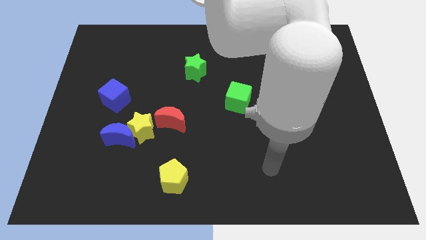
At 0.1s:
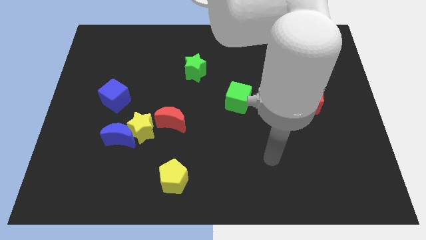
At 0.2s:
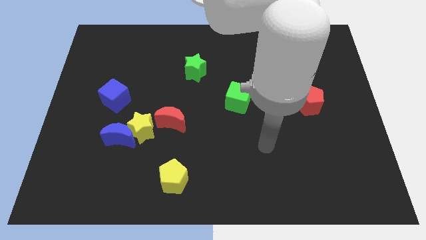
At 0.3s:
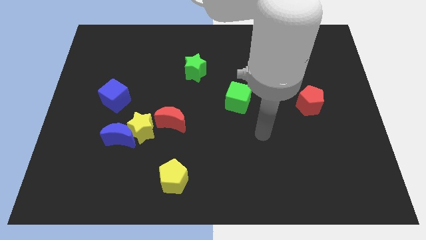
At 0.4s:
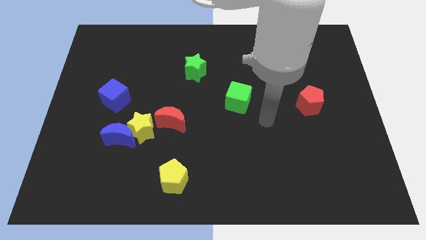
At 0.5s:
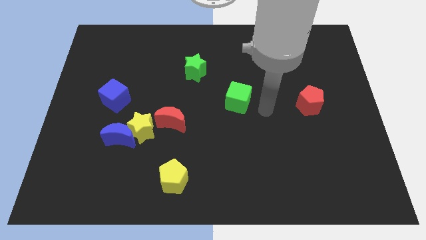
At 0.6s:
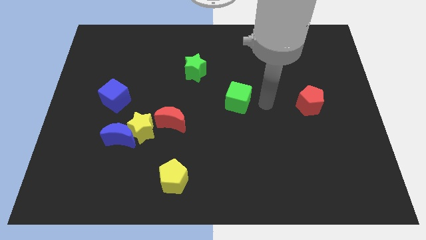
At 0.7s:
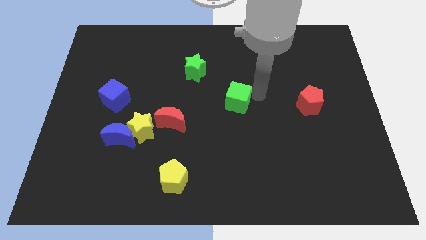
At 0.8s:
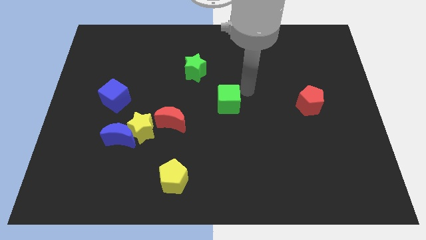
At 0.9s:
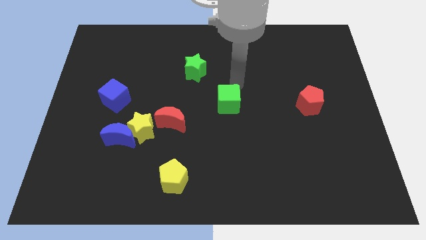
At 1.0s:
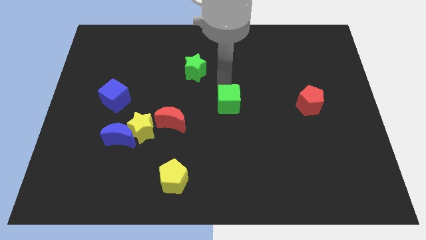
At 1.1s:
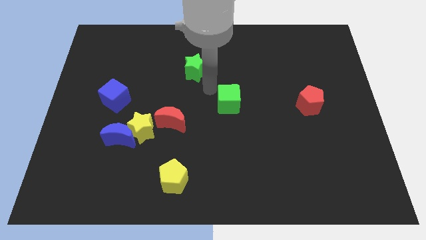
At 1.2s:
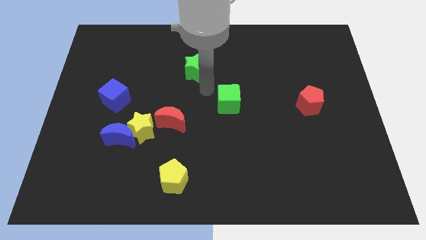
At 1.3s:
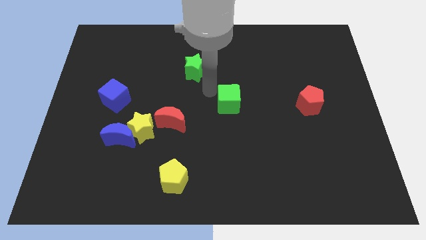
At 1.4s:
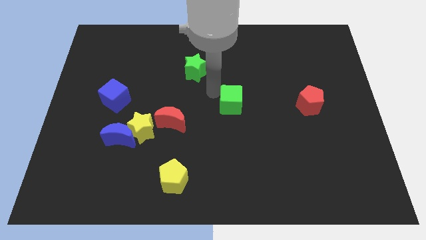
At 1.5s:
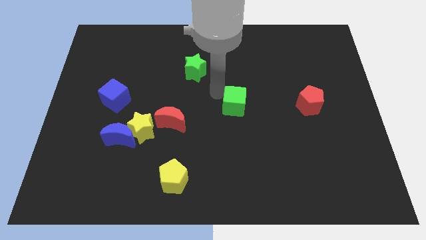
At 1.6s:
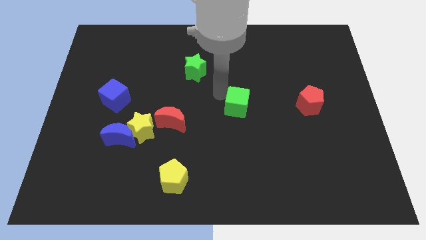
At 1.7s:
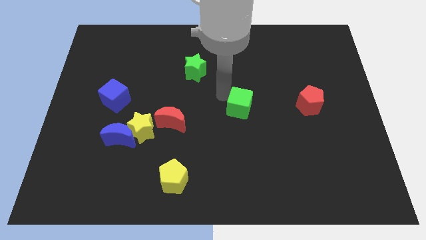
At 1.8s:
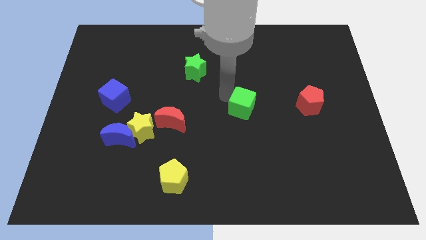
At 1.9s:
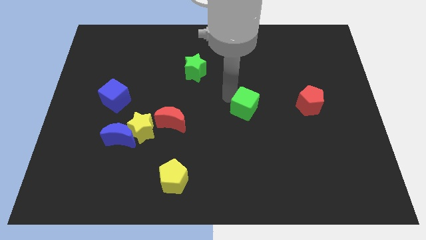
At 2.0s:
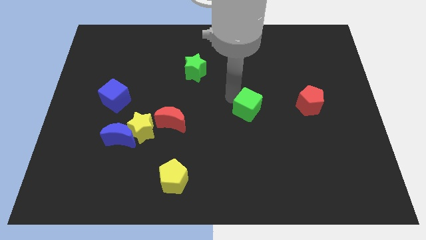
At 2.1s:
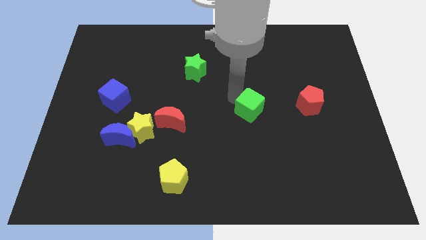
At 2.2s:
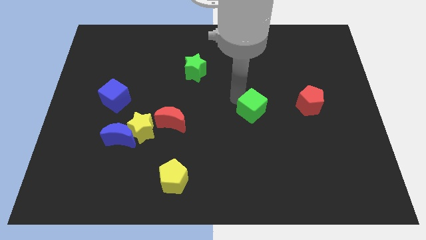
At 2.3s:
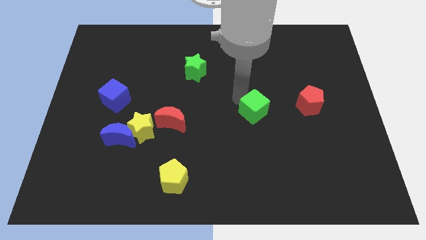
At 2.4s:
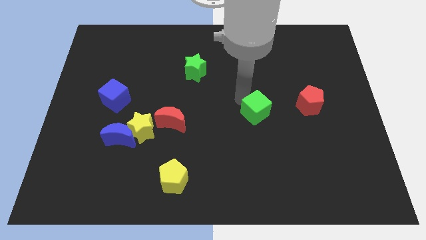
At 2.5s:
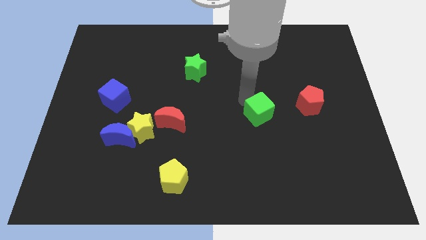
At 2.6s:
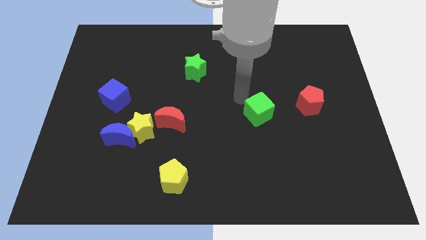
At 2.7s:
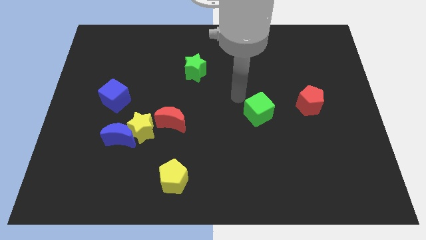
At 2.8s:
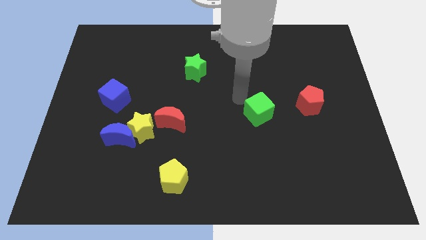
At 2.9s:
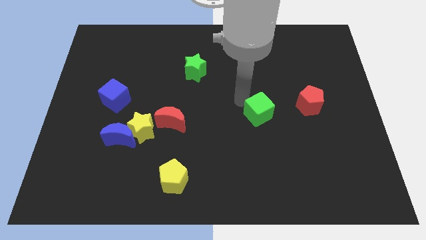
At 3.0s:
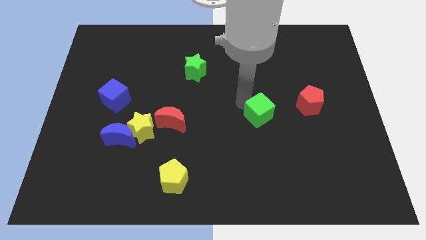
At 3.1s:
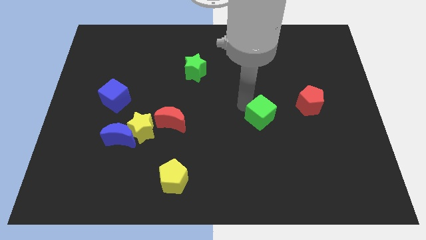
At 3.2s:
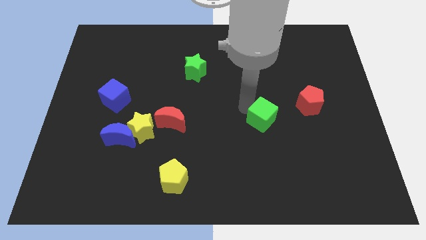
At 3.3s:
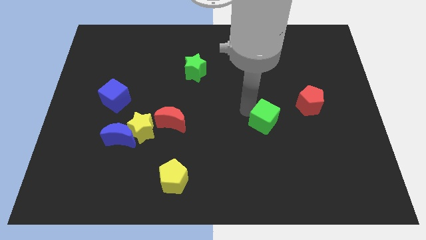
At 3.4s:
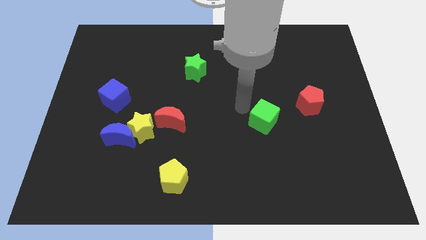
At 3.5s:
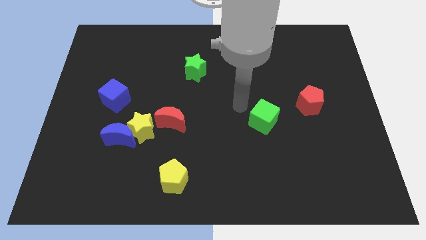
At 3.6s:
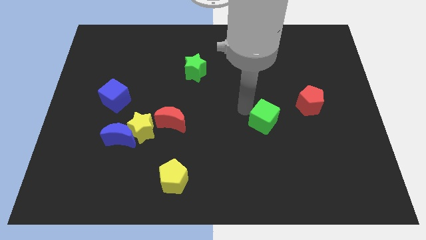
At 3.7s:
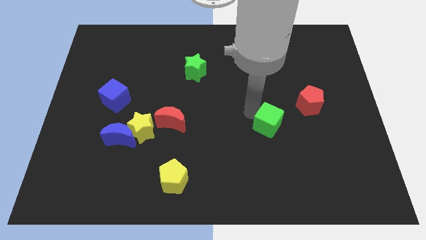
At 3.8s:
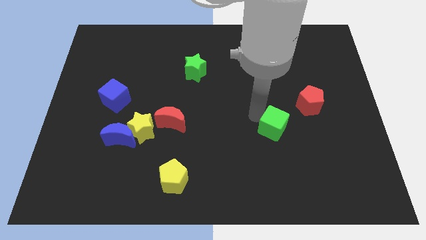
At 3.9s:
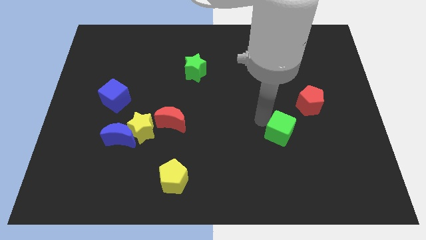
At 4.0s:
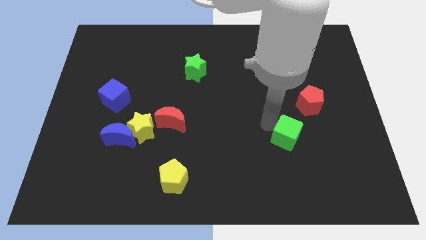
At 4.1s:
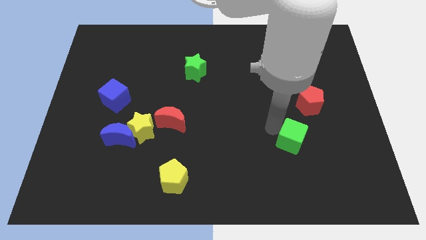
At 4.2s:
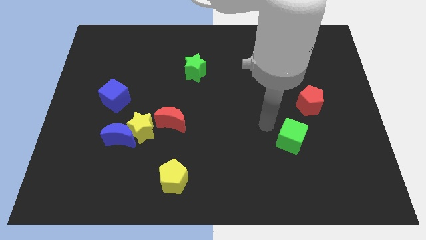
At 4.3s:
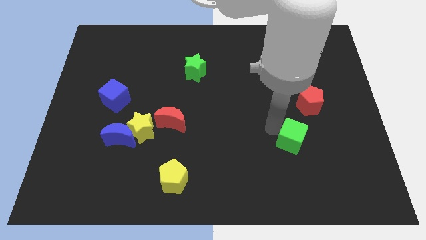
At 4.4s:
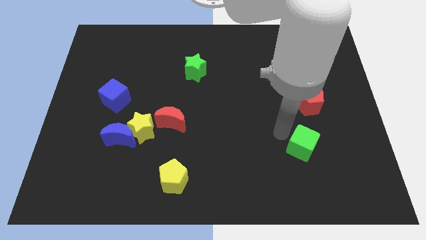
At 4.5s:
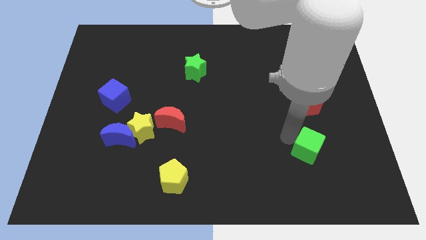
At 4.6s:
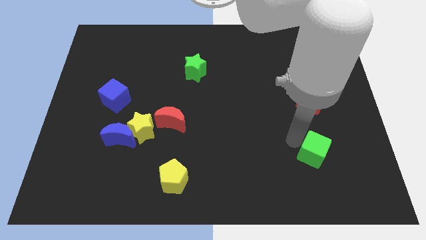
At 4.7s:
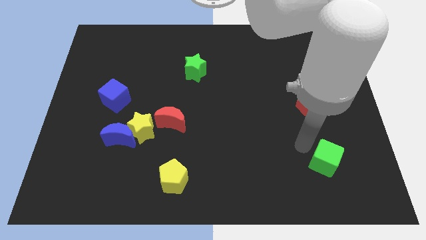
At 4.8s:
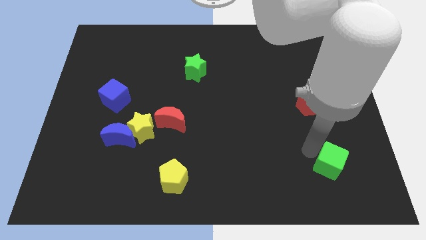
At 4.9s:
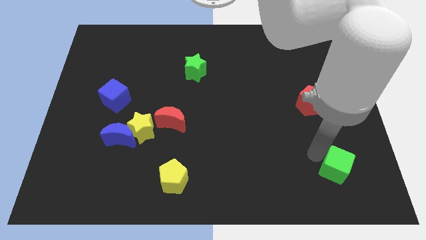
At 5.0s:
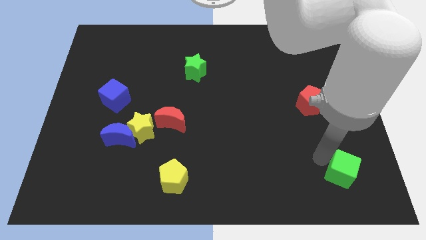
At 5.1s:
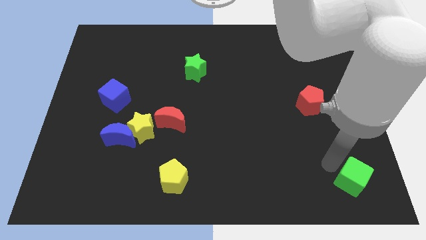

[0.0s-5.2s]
slide the green cube to the bottom right

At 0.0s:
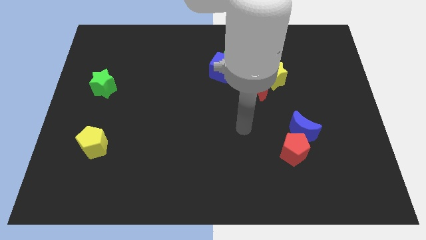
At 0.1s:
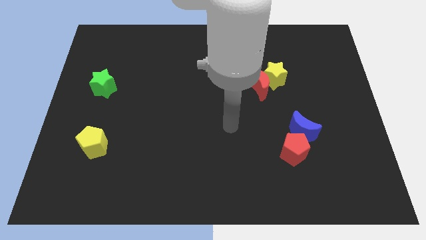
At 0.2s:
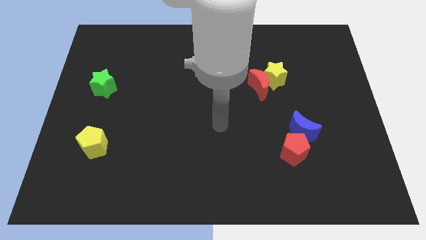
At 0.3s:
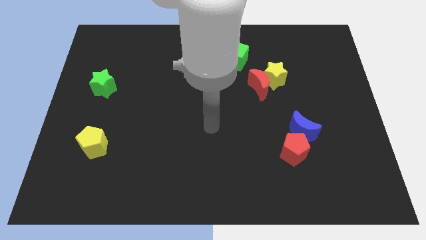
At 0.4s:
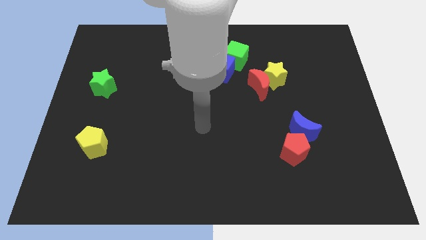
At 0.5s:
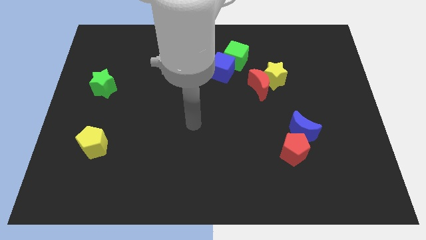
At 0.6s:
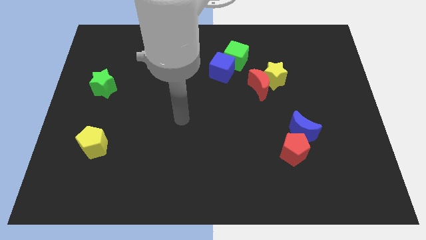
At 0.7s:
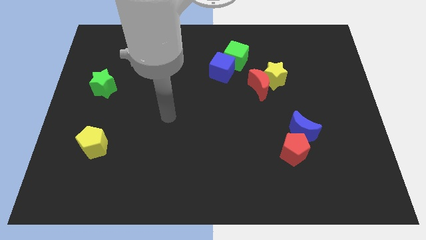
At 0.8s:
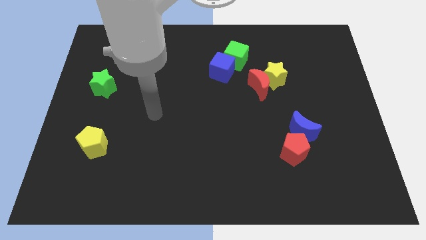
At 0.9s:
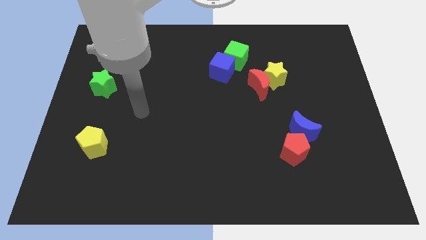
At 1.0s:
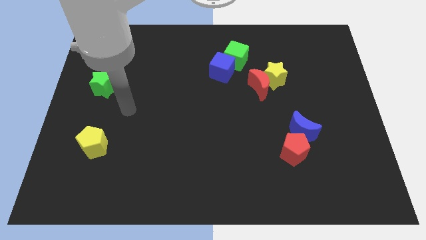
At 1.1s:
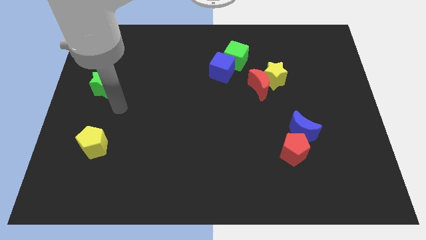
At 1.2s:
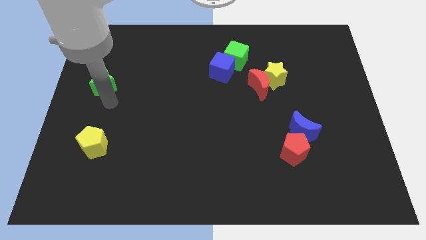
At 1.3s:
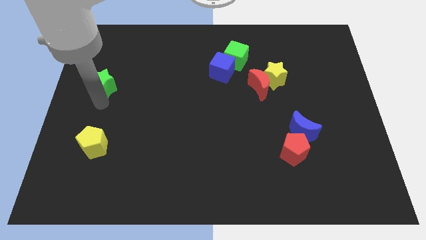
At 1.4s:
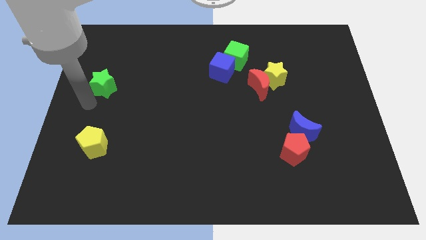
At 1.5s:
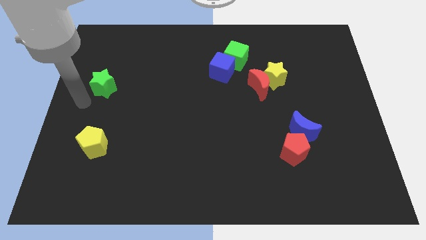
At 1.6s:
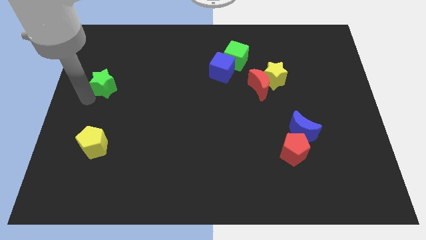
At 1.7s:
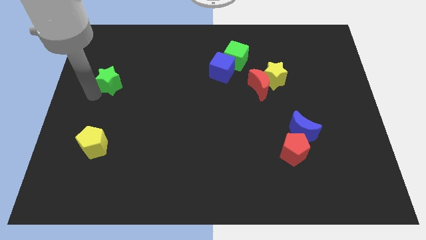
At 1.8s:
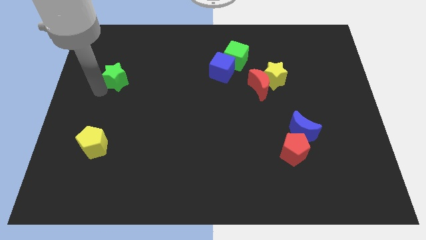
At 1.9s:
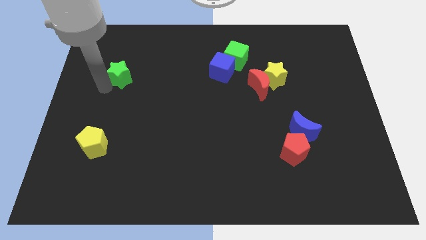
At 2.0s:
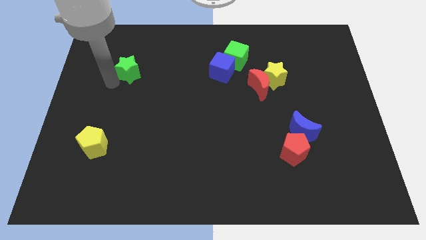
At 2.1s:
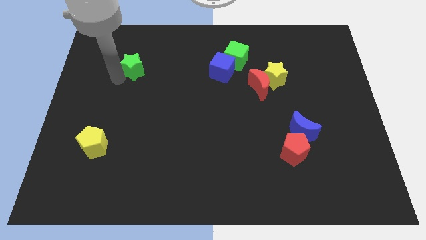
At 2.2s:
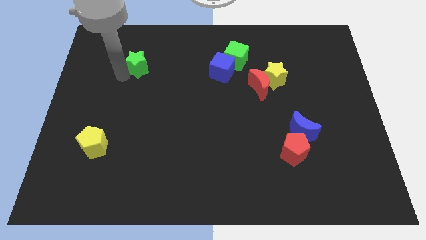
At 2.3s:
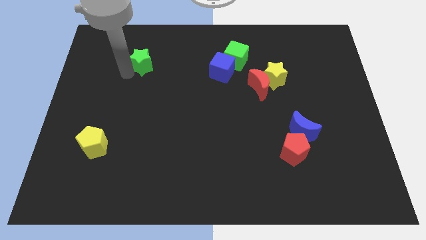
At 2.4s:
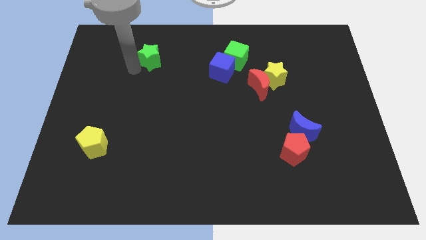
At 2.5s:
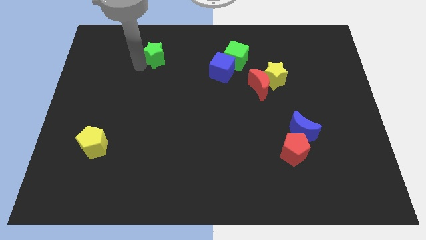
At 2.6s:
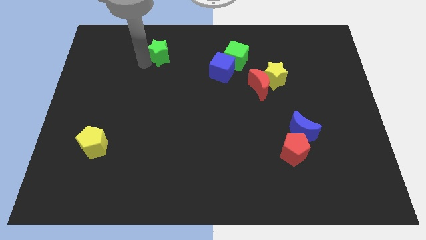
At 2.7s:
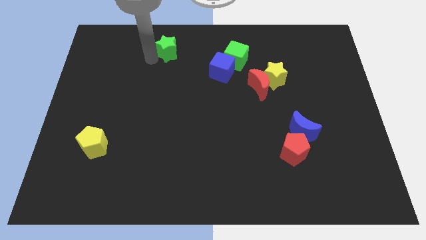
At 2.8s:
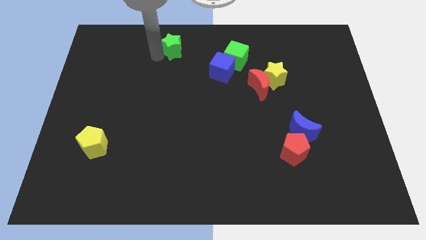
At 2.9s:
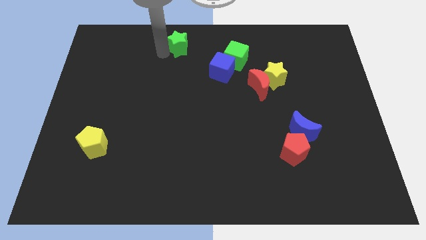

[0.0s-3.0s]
slide the green star to the towards your base
